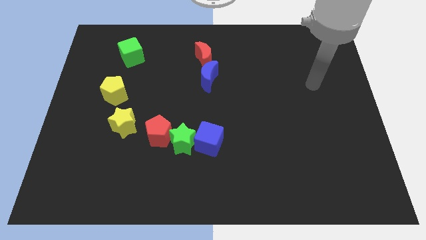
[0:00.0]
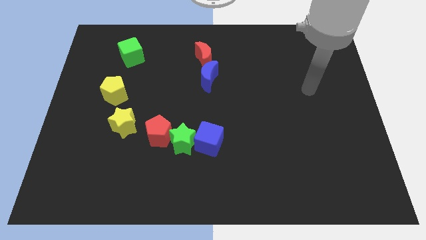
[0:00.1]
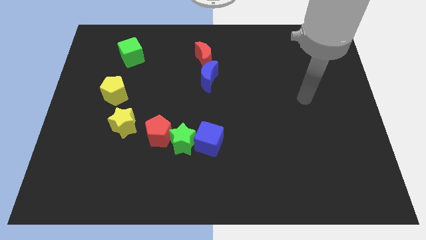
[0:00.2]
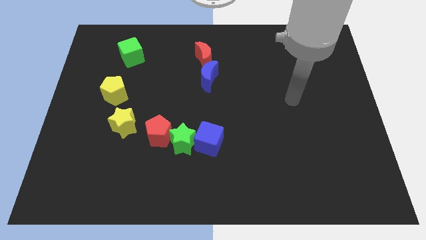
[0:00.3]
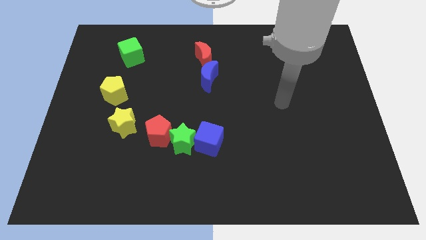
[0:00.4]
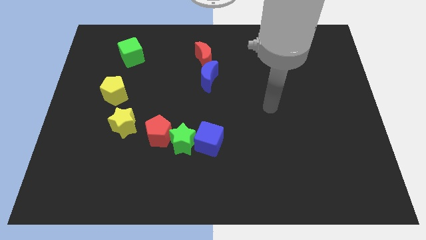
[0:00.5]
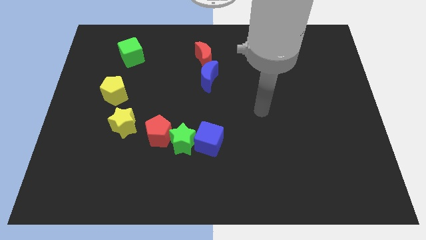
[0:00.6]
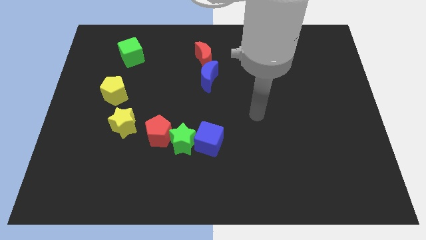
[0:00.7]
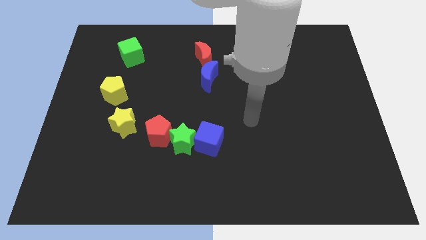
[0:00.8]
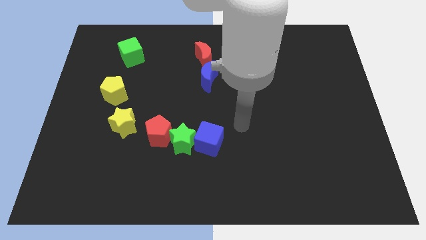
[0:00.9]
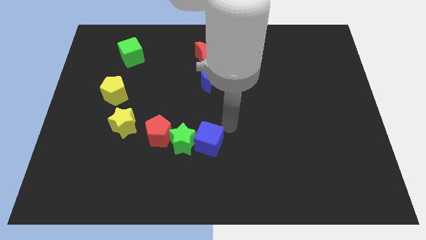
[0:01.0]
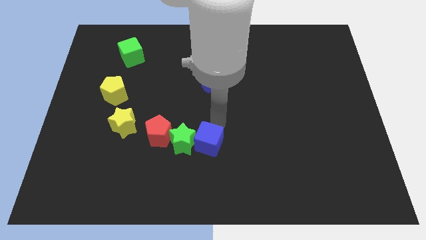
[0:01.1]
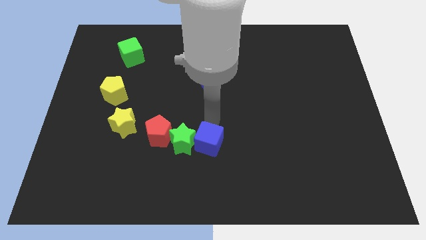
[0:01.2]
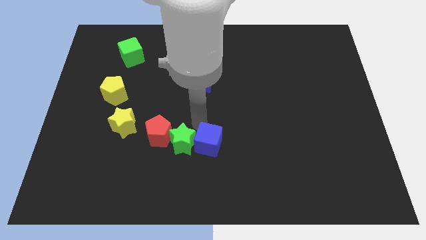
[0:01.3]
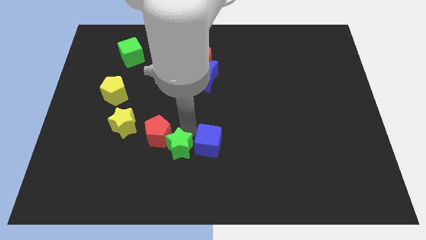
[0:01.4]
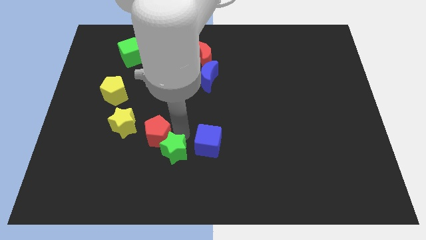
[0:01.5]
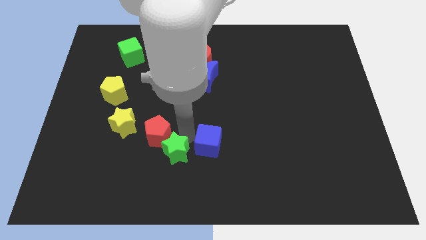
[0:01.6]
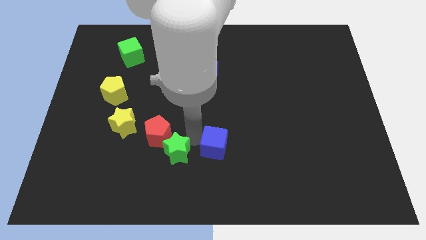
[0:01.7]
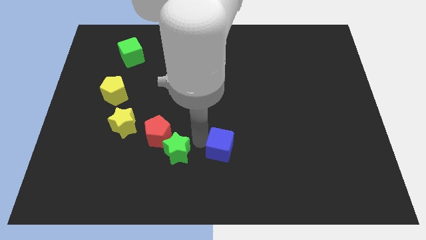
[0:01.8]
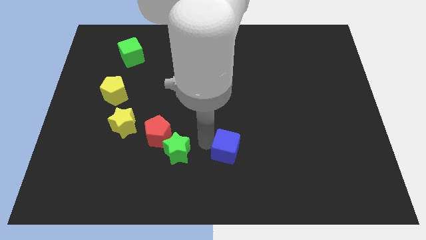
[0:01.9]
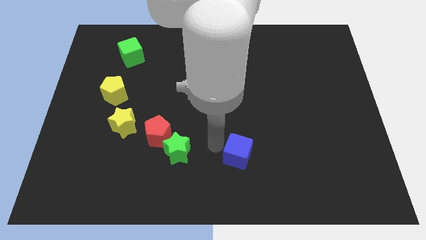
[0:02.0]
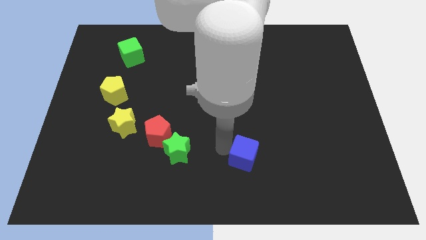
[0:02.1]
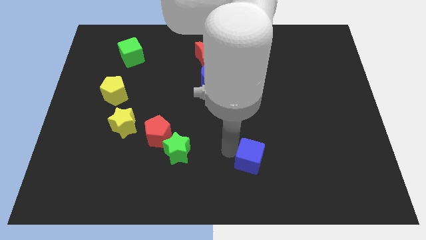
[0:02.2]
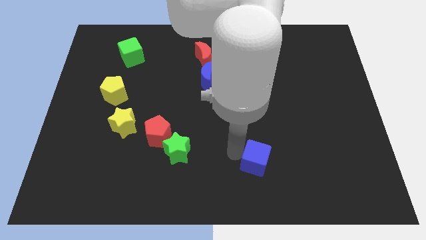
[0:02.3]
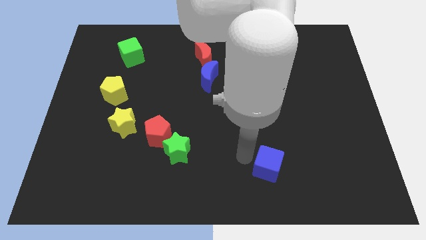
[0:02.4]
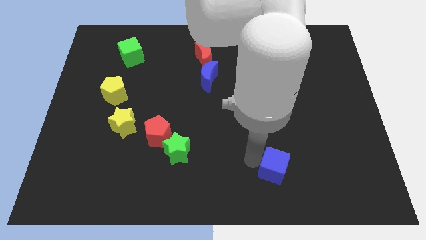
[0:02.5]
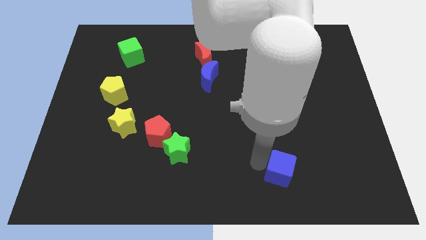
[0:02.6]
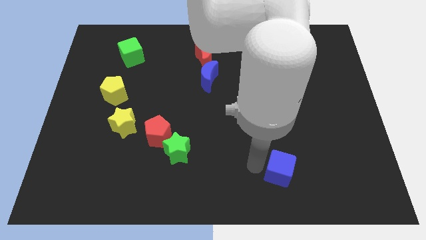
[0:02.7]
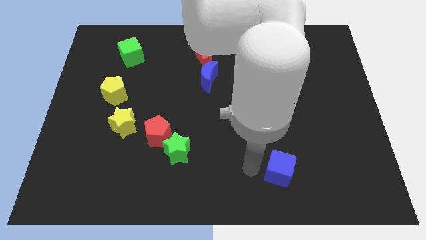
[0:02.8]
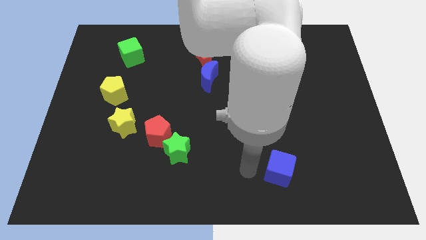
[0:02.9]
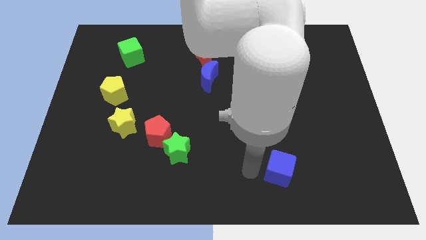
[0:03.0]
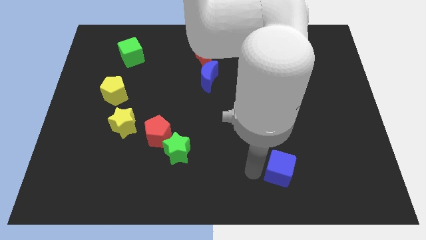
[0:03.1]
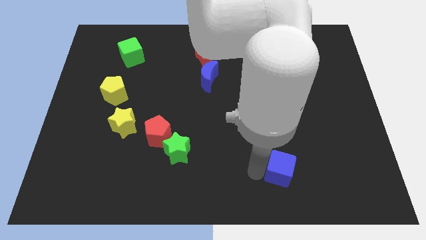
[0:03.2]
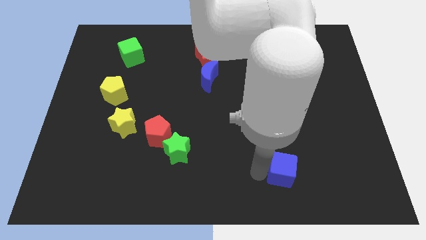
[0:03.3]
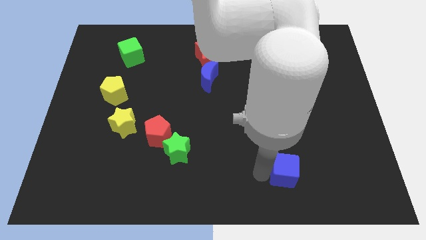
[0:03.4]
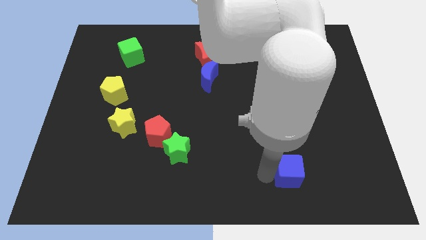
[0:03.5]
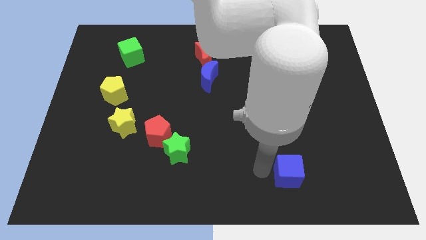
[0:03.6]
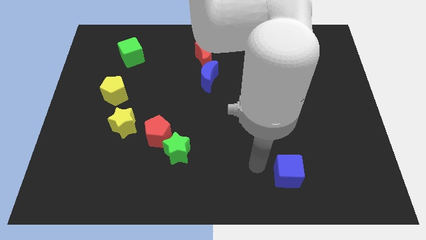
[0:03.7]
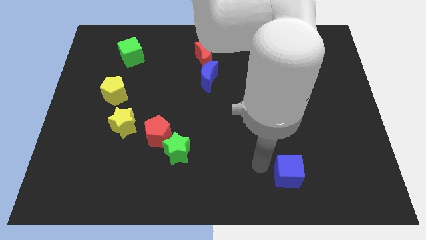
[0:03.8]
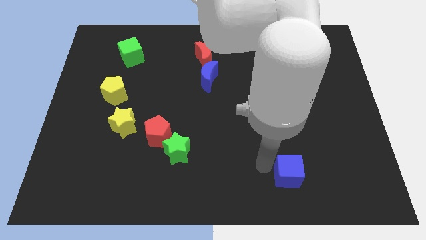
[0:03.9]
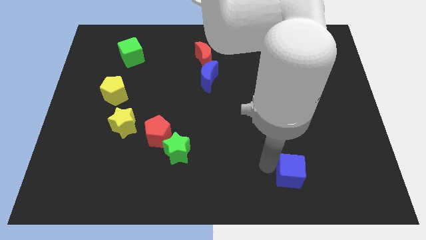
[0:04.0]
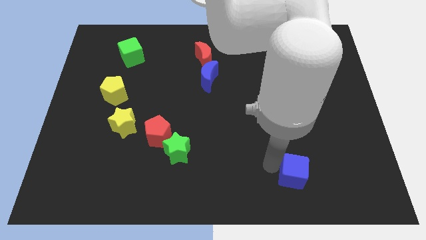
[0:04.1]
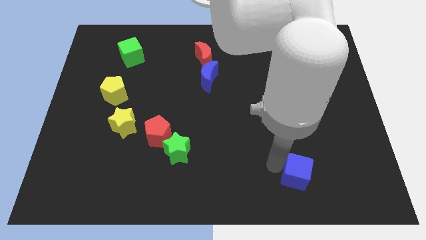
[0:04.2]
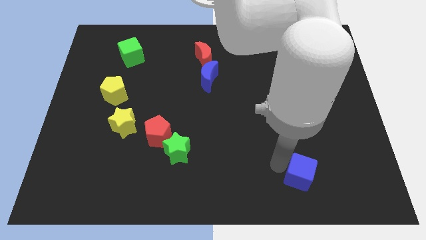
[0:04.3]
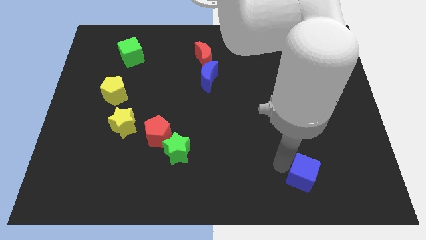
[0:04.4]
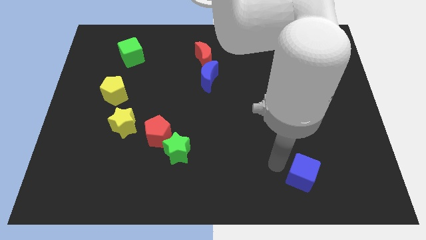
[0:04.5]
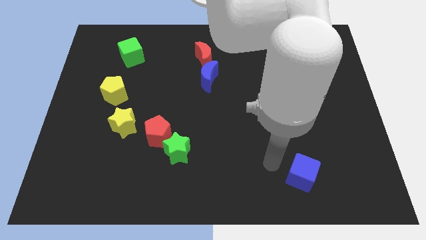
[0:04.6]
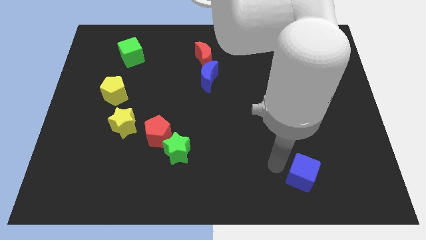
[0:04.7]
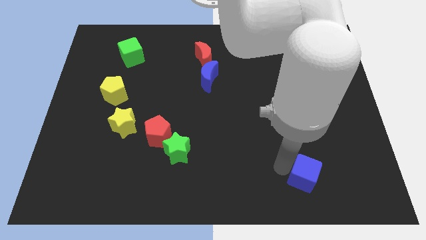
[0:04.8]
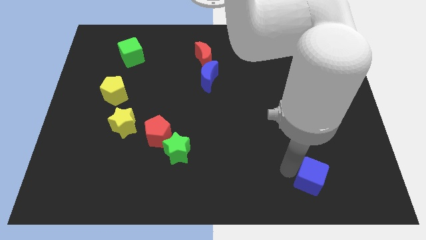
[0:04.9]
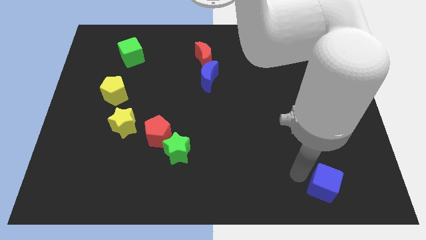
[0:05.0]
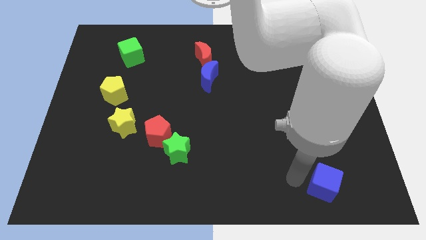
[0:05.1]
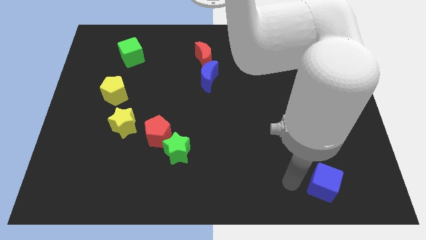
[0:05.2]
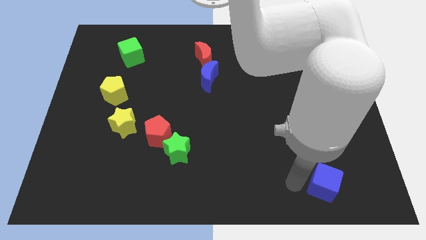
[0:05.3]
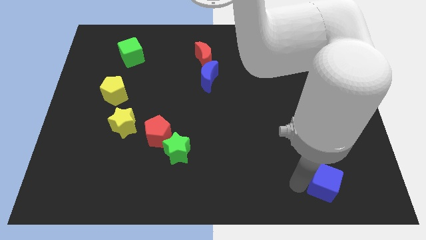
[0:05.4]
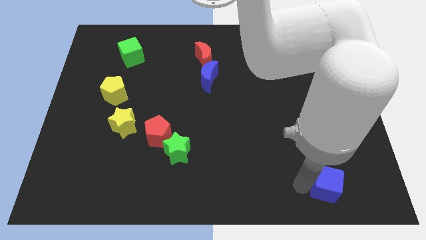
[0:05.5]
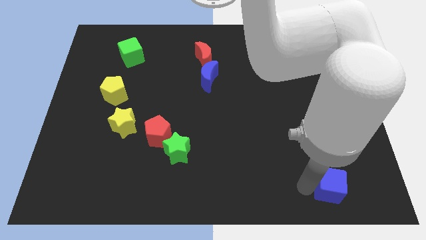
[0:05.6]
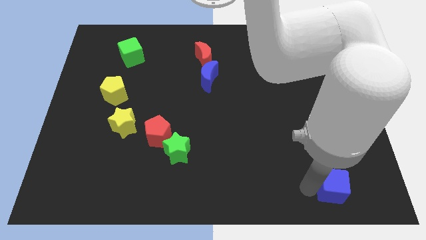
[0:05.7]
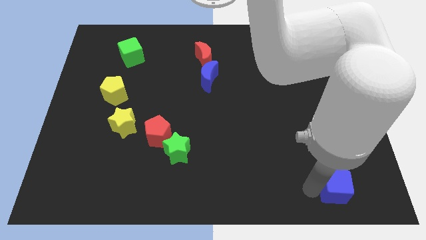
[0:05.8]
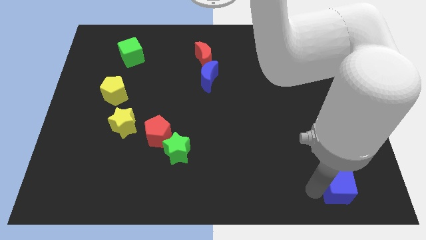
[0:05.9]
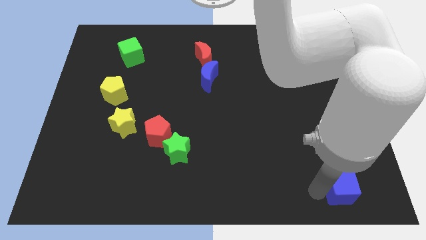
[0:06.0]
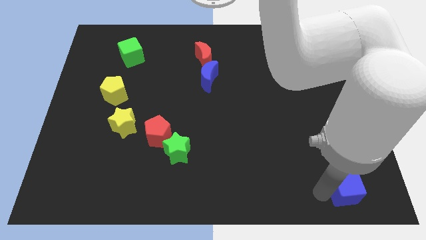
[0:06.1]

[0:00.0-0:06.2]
push the blue cube to the bottom right of the board
